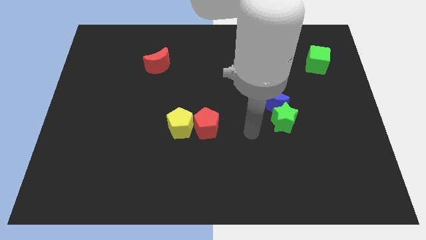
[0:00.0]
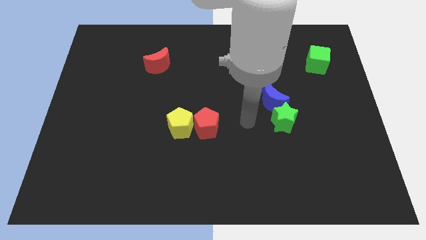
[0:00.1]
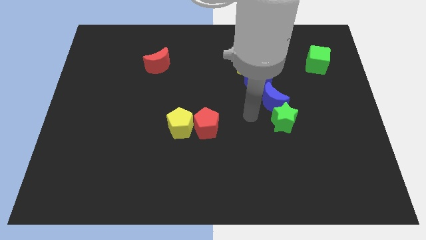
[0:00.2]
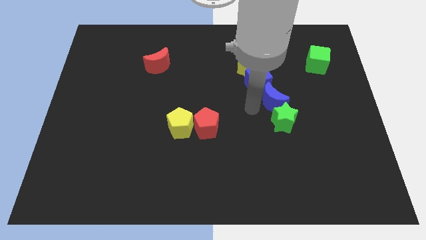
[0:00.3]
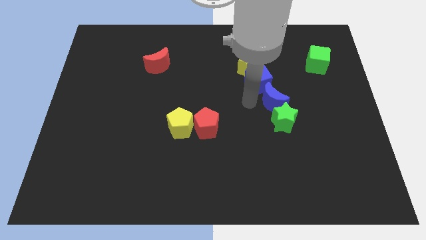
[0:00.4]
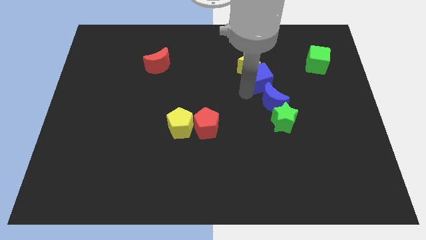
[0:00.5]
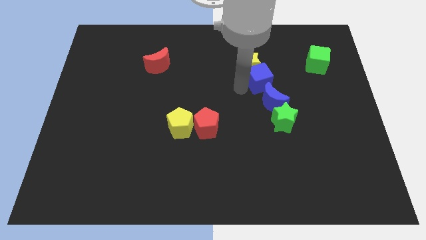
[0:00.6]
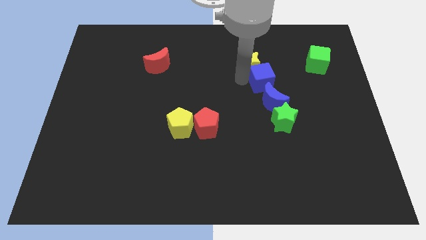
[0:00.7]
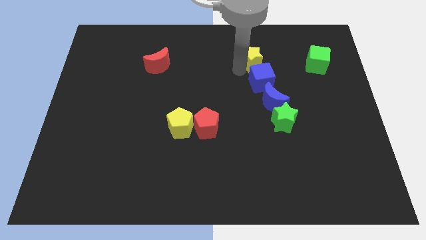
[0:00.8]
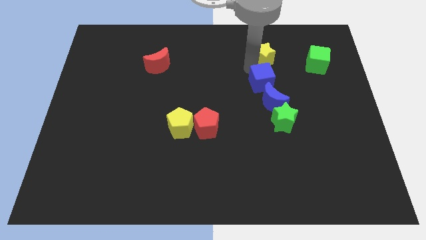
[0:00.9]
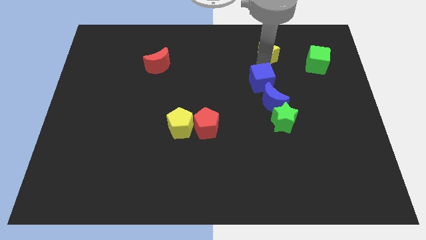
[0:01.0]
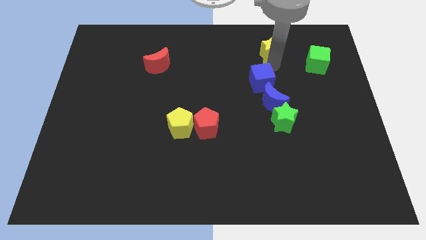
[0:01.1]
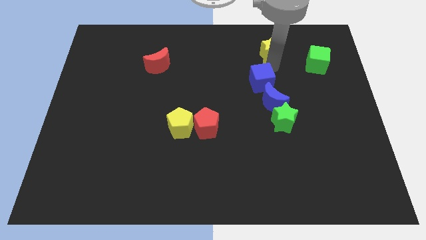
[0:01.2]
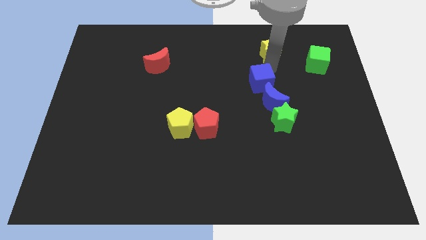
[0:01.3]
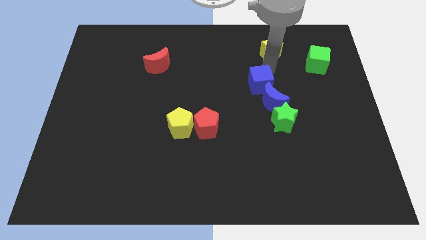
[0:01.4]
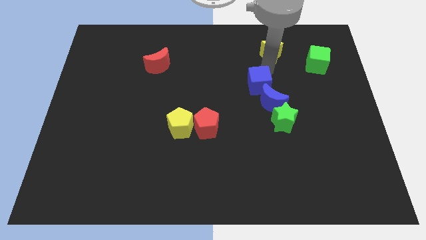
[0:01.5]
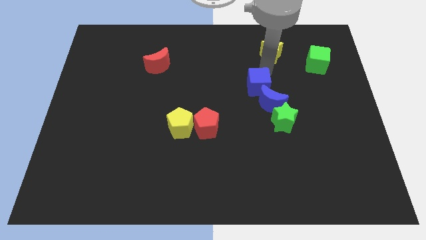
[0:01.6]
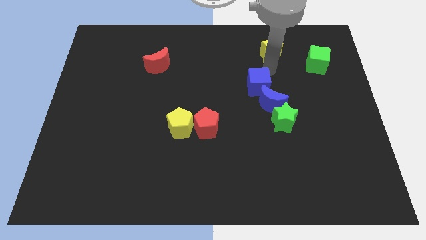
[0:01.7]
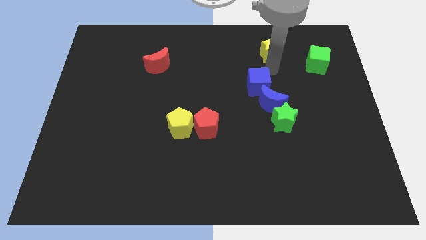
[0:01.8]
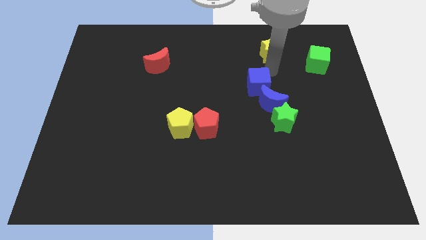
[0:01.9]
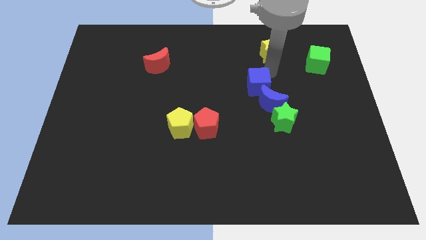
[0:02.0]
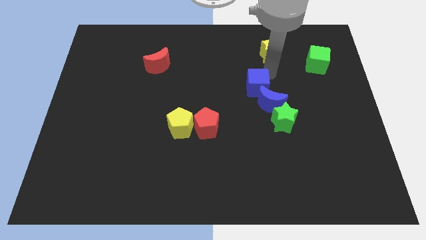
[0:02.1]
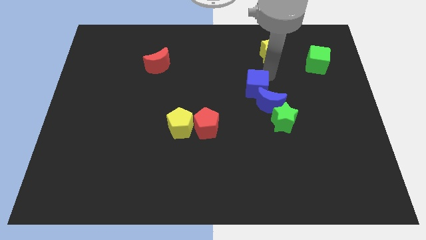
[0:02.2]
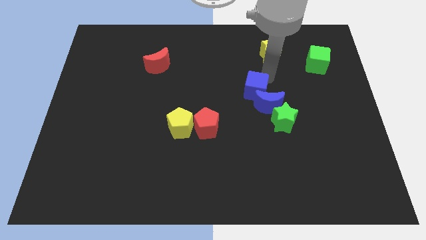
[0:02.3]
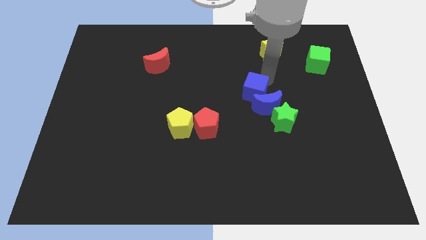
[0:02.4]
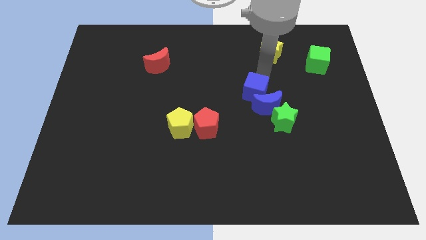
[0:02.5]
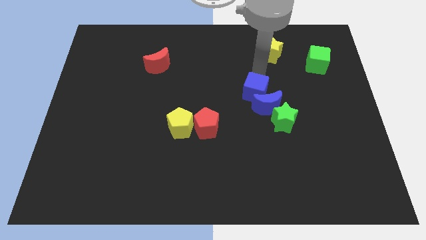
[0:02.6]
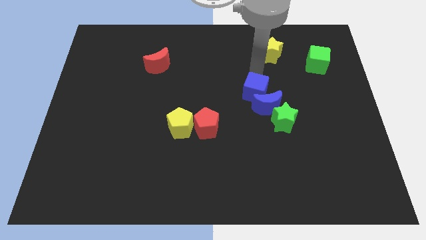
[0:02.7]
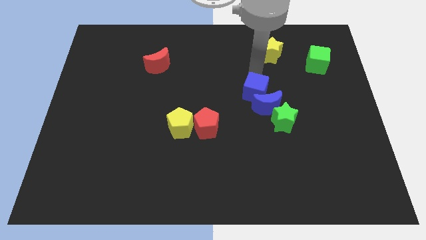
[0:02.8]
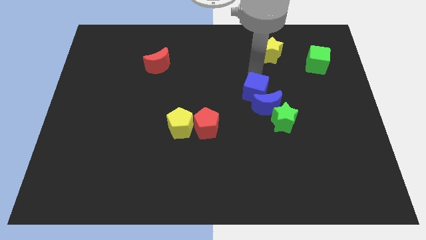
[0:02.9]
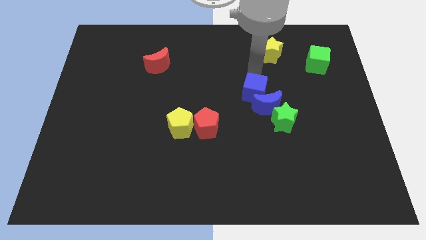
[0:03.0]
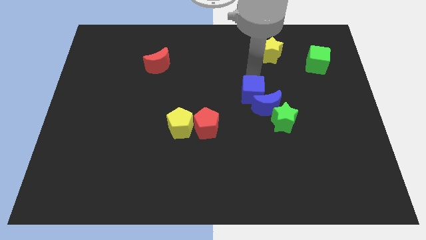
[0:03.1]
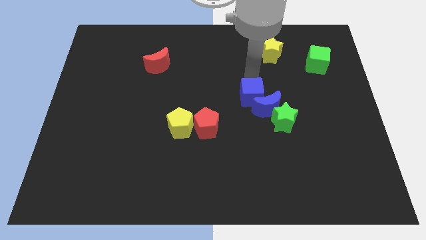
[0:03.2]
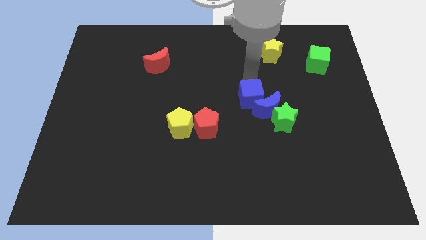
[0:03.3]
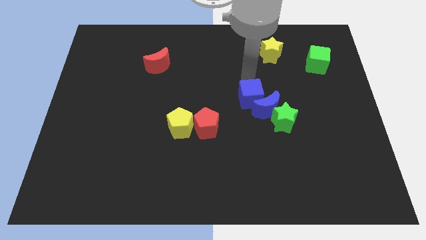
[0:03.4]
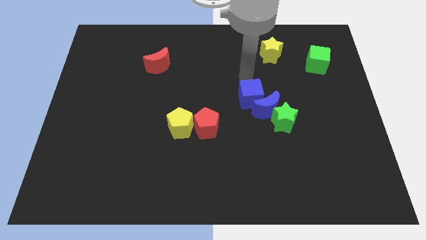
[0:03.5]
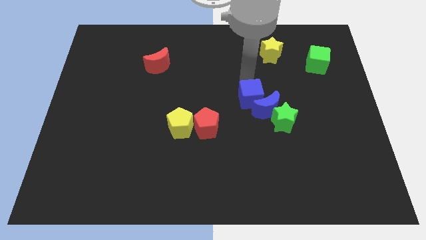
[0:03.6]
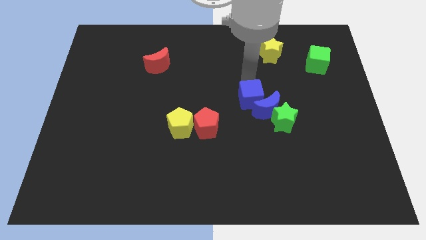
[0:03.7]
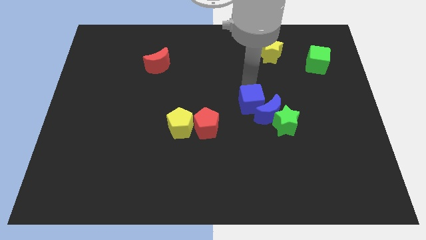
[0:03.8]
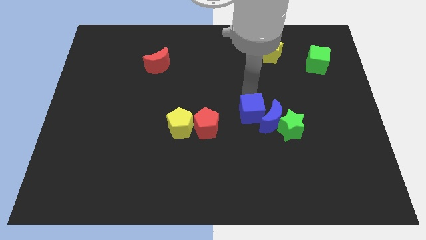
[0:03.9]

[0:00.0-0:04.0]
slightly move the blue cube downwards

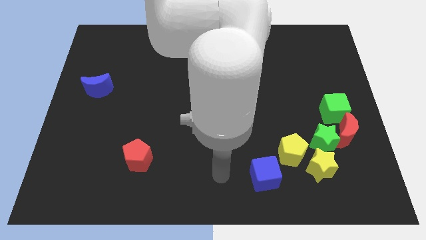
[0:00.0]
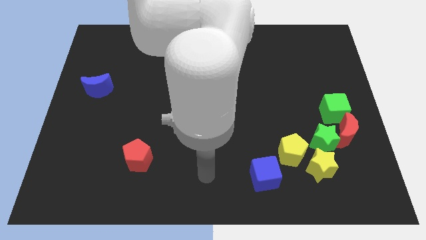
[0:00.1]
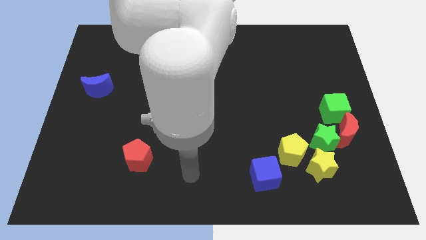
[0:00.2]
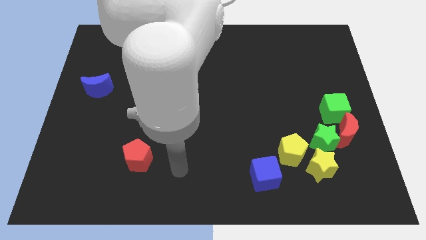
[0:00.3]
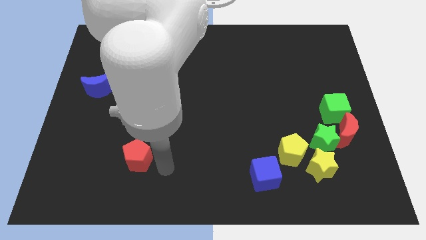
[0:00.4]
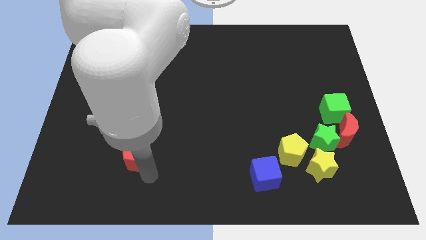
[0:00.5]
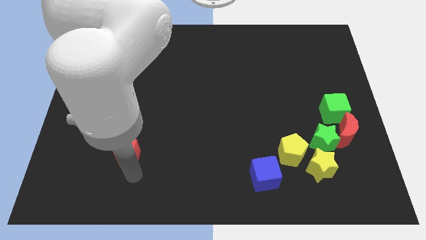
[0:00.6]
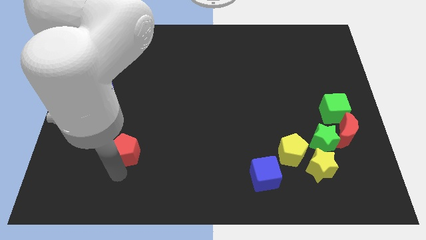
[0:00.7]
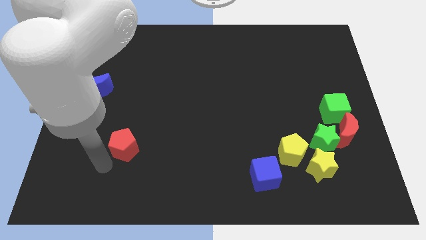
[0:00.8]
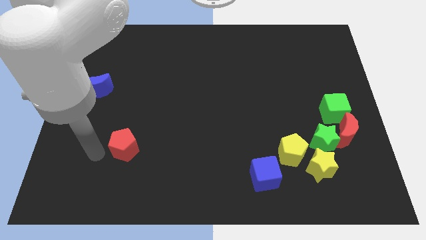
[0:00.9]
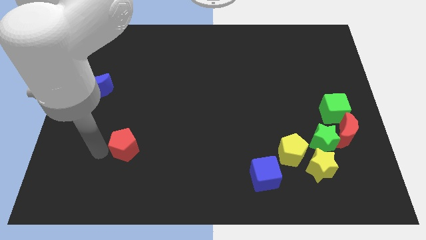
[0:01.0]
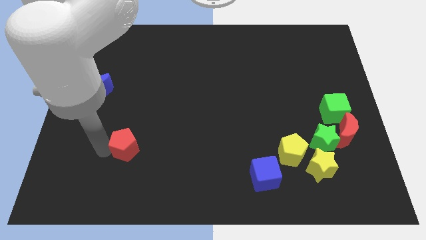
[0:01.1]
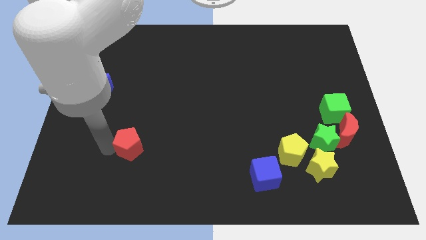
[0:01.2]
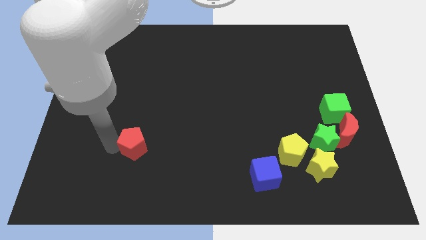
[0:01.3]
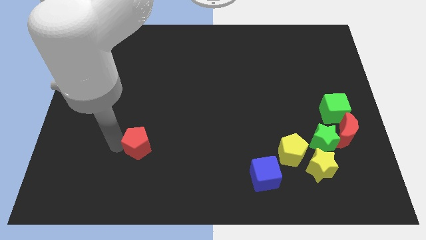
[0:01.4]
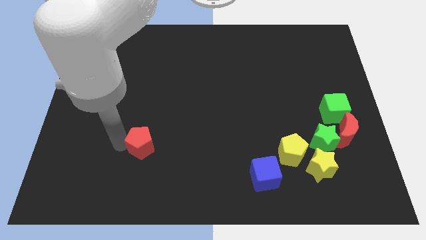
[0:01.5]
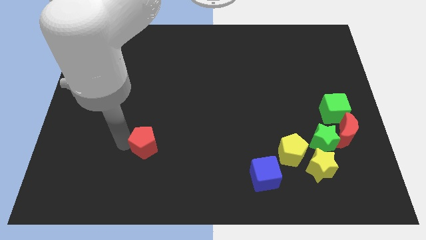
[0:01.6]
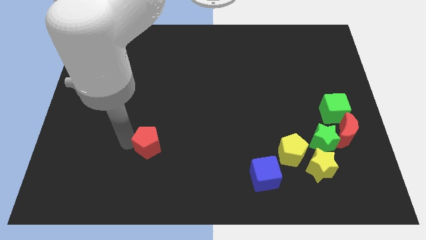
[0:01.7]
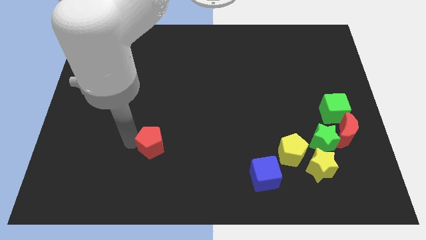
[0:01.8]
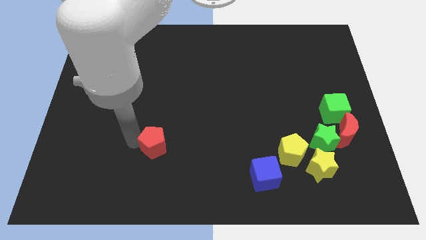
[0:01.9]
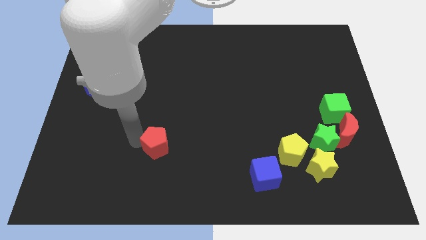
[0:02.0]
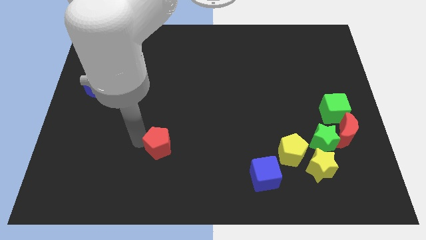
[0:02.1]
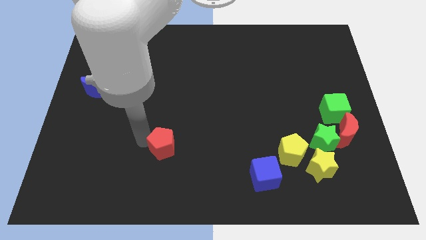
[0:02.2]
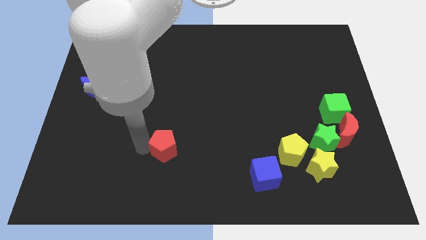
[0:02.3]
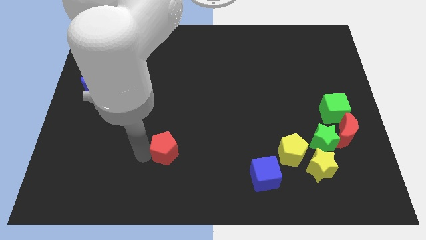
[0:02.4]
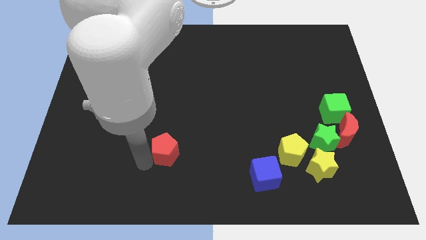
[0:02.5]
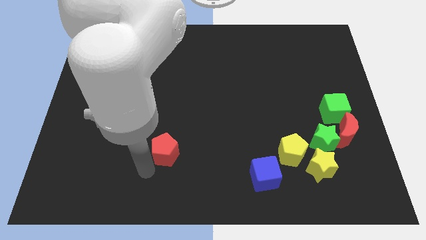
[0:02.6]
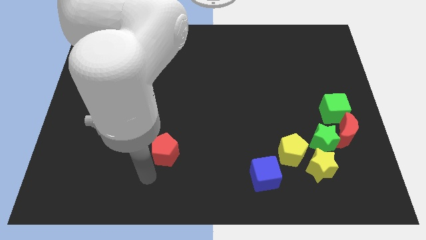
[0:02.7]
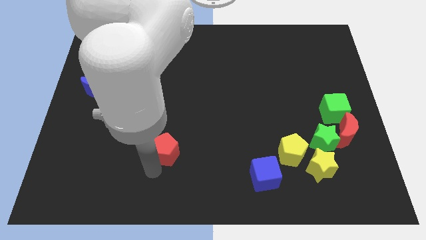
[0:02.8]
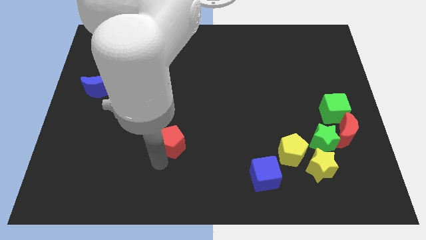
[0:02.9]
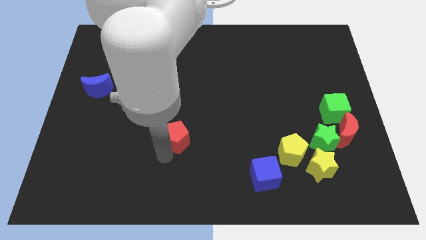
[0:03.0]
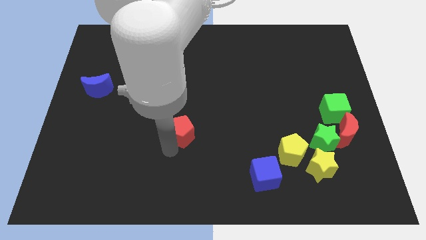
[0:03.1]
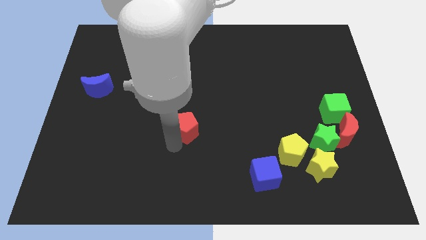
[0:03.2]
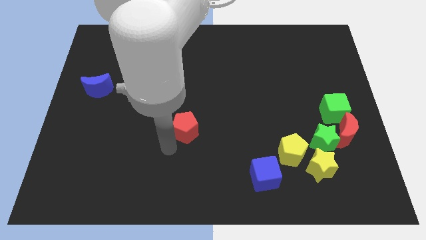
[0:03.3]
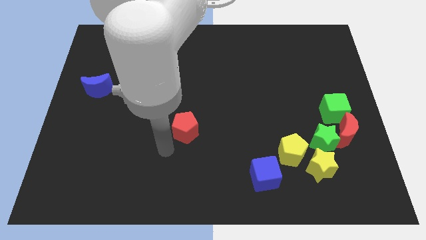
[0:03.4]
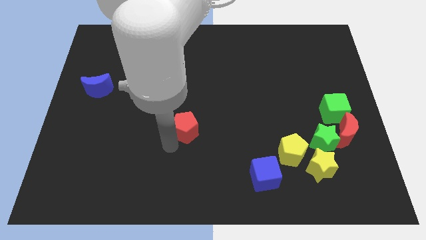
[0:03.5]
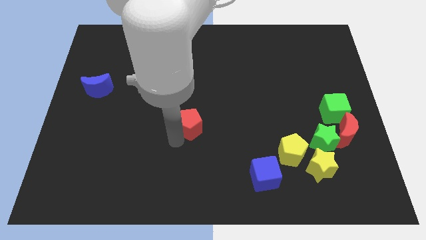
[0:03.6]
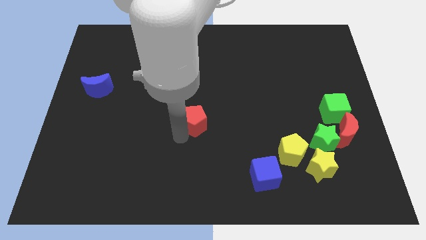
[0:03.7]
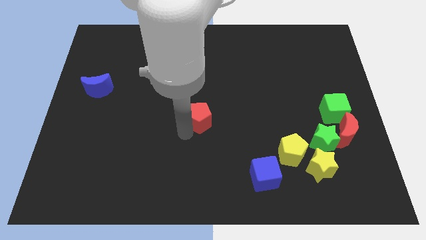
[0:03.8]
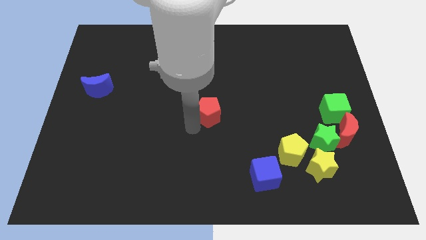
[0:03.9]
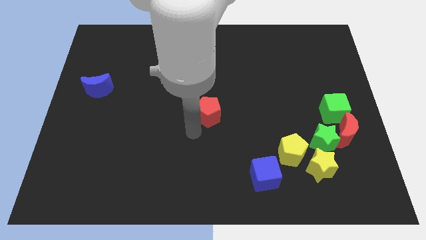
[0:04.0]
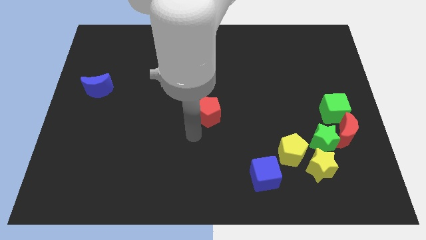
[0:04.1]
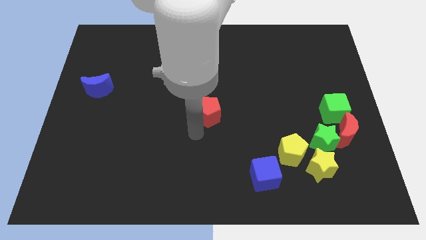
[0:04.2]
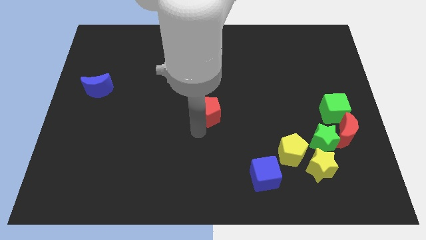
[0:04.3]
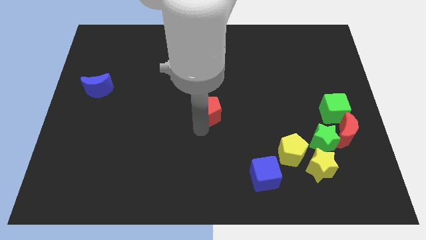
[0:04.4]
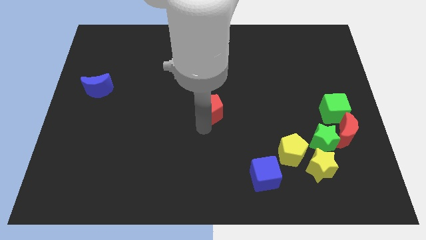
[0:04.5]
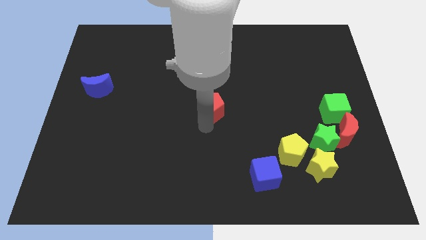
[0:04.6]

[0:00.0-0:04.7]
move the red pentagon upwards and to the right
